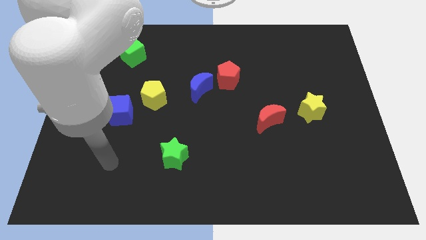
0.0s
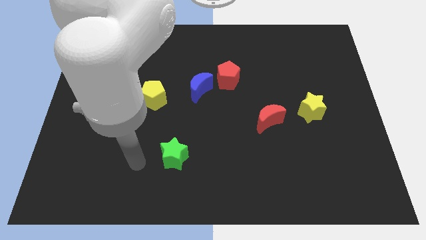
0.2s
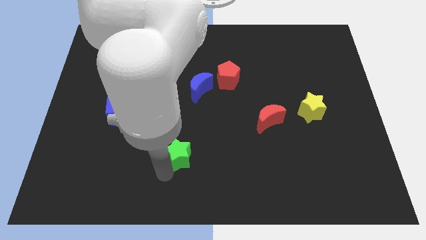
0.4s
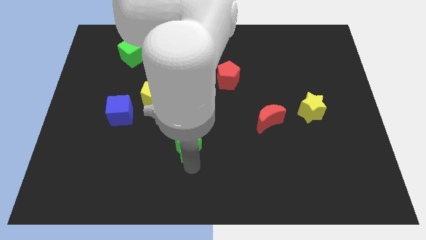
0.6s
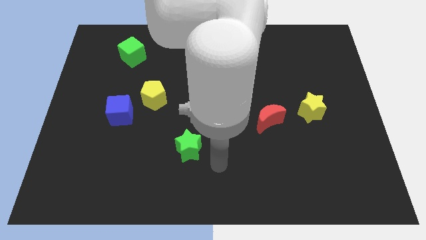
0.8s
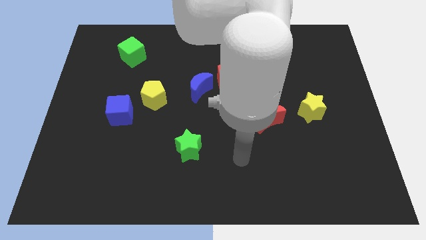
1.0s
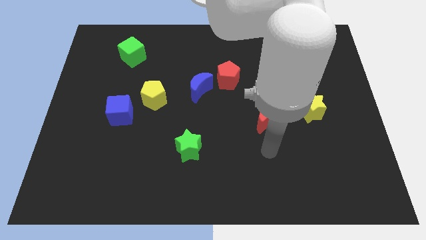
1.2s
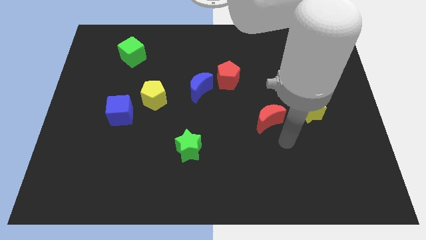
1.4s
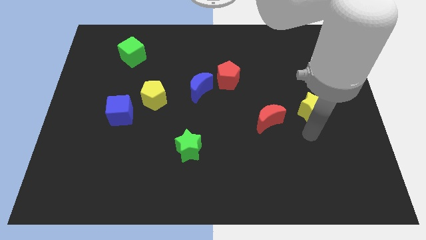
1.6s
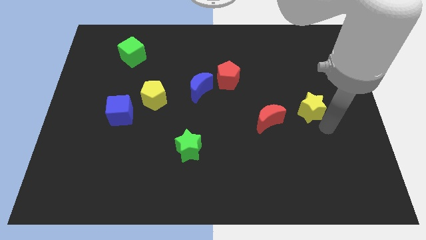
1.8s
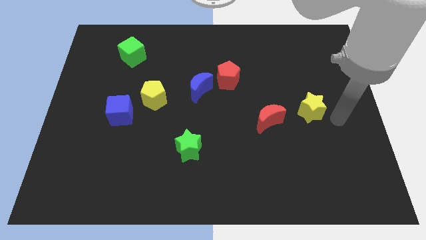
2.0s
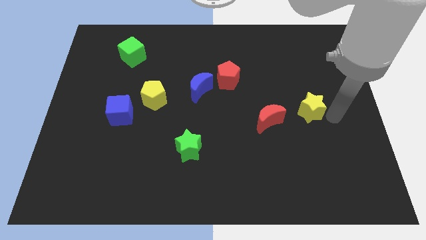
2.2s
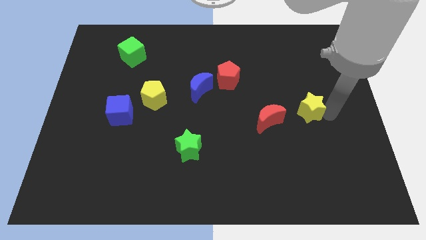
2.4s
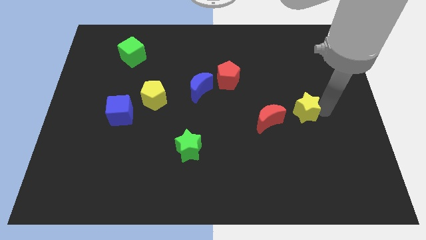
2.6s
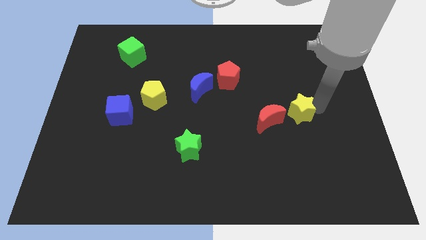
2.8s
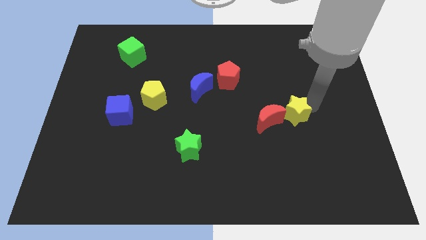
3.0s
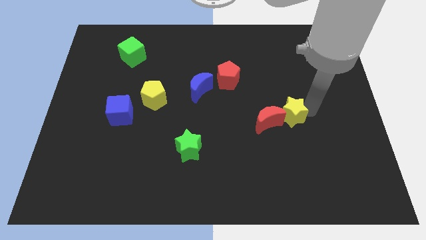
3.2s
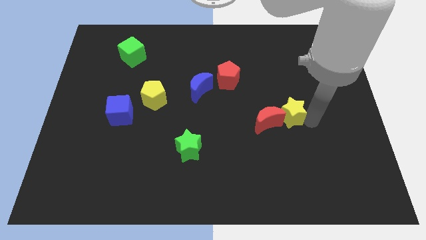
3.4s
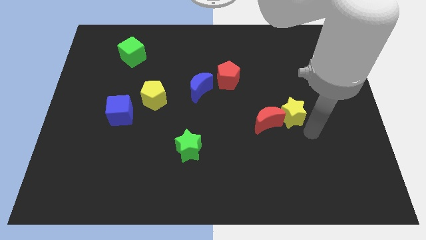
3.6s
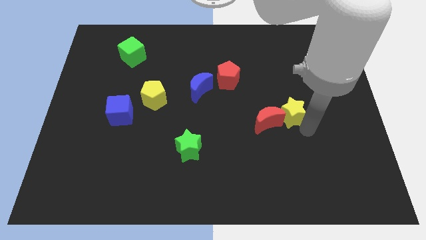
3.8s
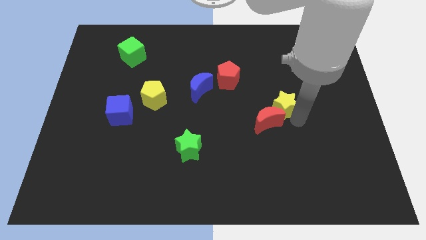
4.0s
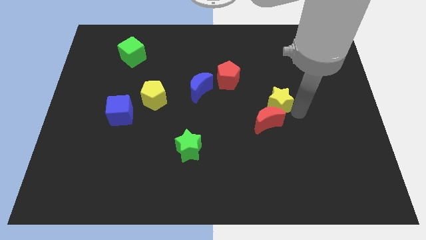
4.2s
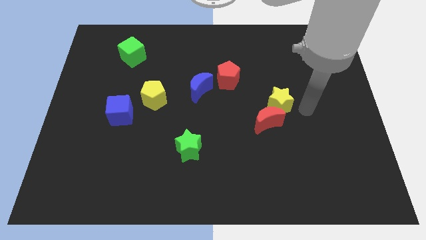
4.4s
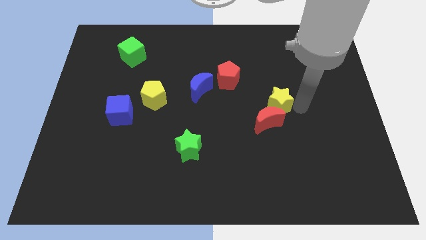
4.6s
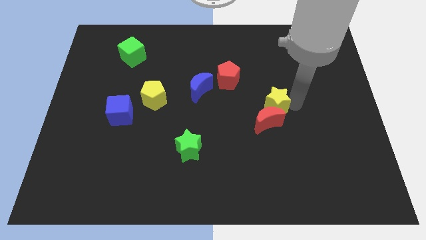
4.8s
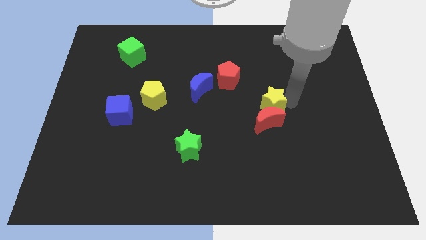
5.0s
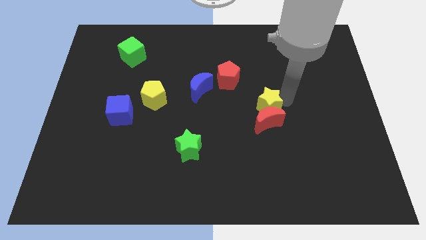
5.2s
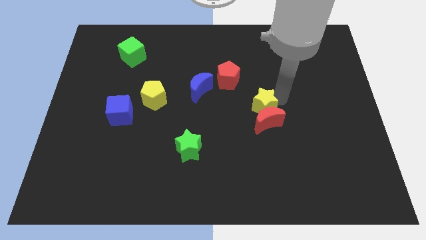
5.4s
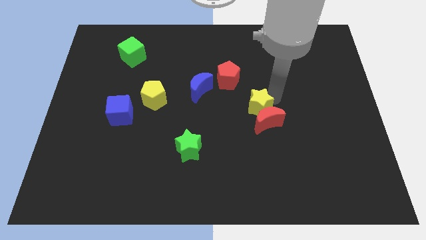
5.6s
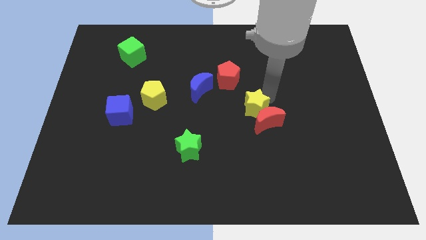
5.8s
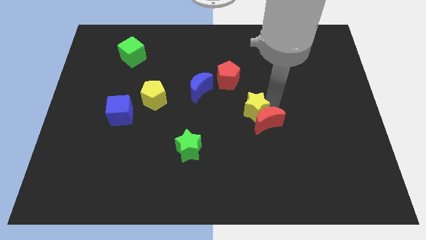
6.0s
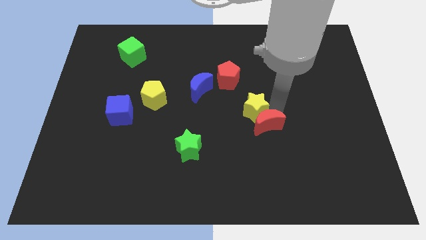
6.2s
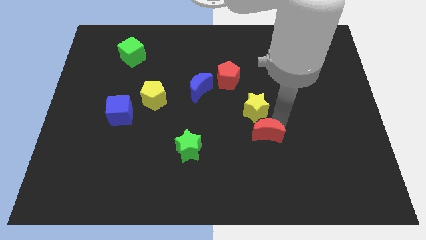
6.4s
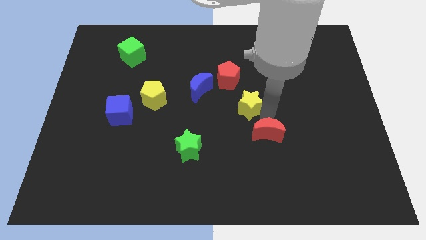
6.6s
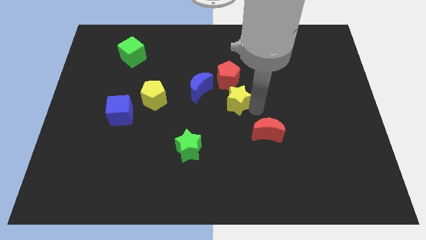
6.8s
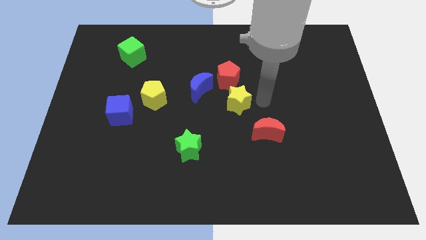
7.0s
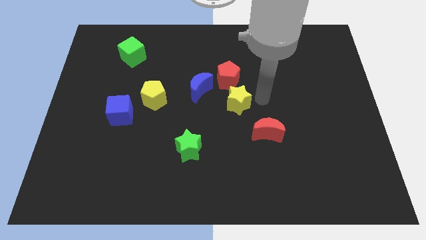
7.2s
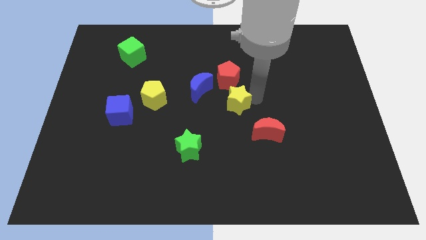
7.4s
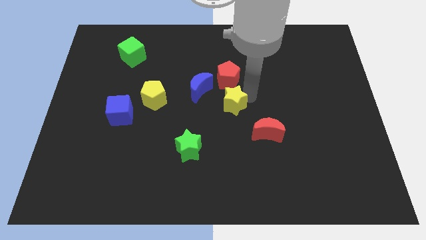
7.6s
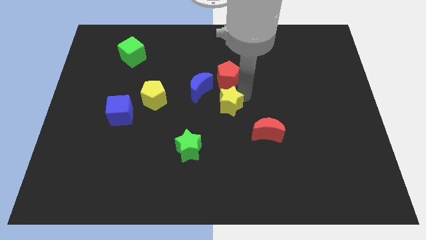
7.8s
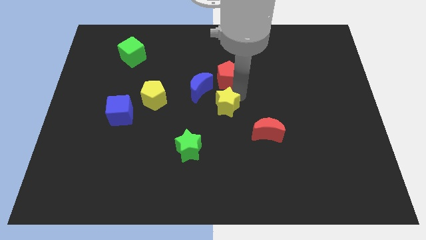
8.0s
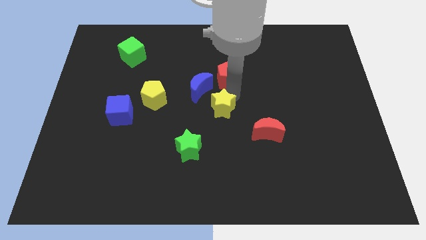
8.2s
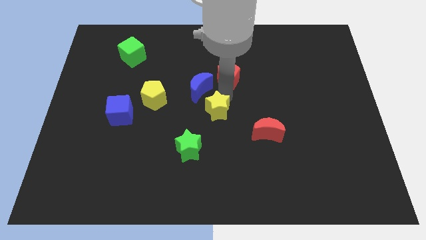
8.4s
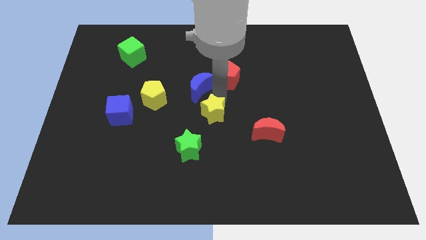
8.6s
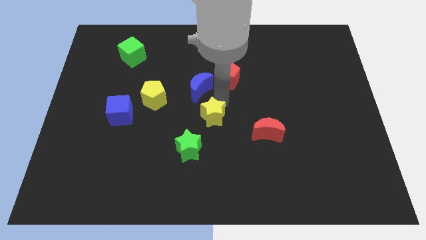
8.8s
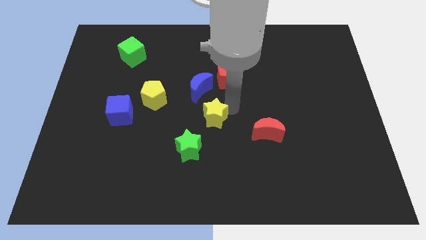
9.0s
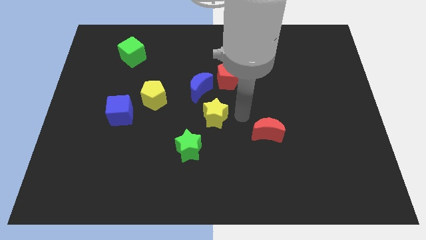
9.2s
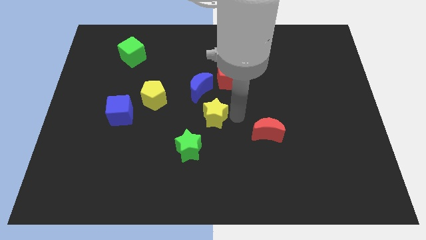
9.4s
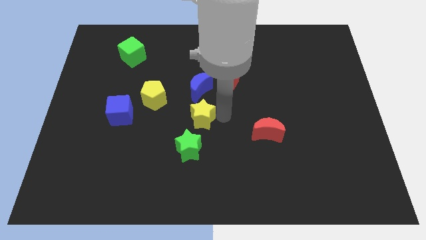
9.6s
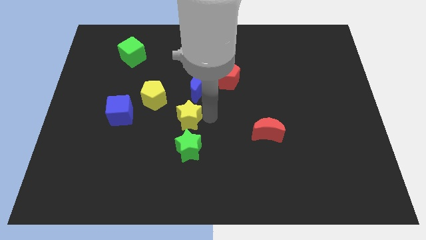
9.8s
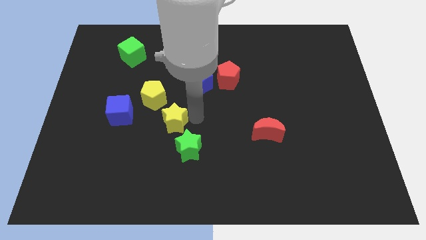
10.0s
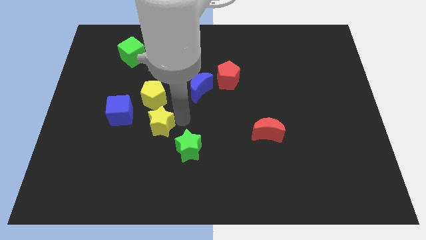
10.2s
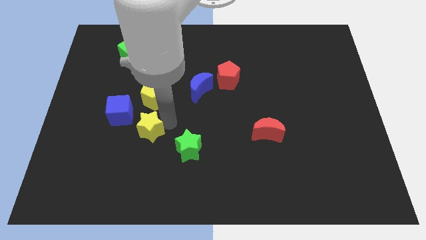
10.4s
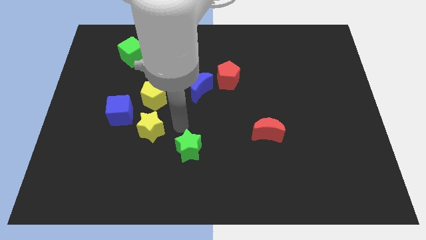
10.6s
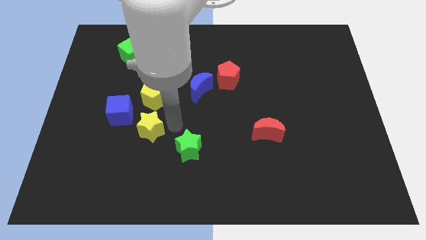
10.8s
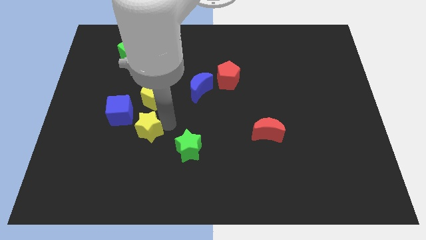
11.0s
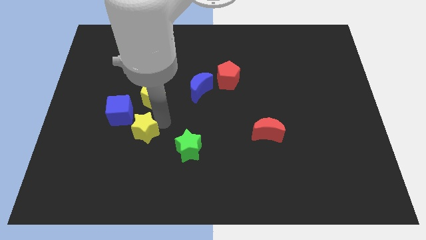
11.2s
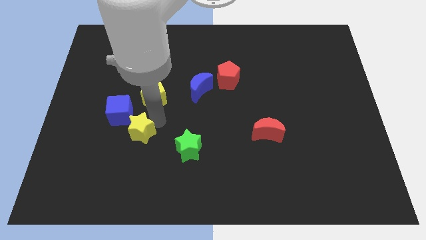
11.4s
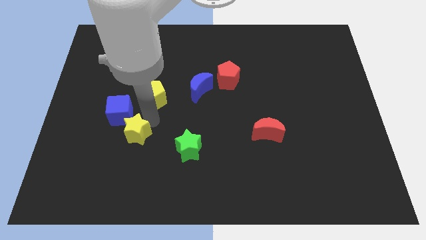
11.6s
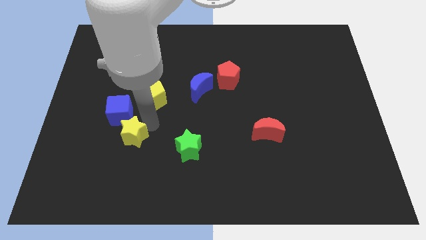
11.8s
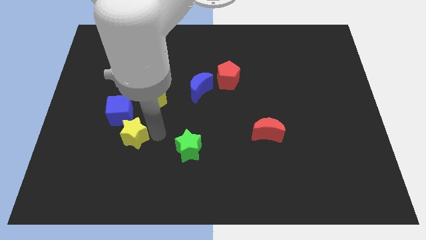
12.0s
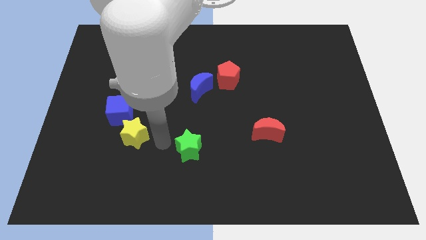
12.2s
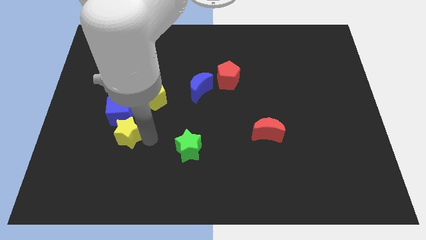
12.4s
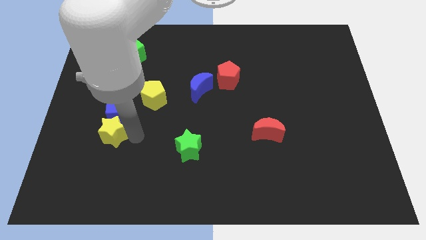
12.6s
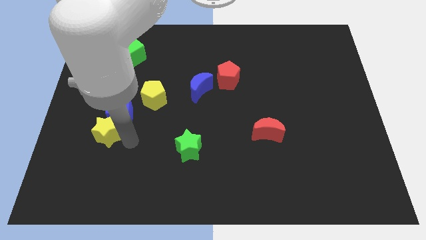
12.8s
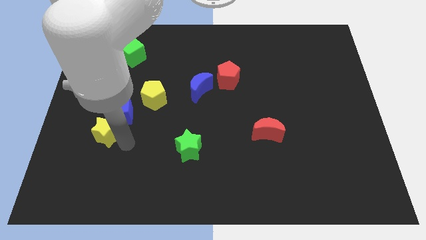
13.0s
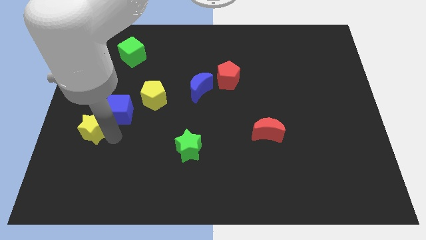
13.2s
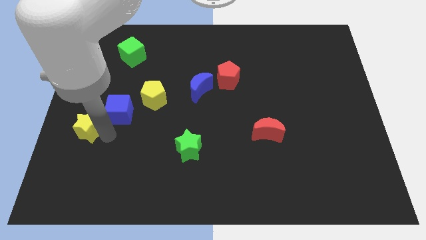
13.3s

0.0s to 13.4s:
move the yellow star to the left side of the board

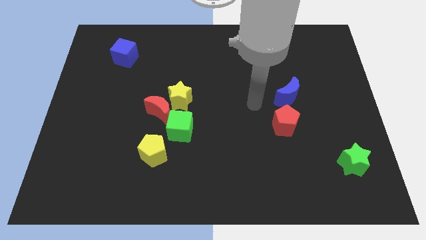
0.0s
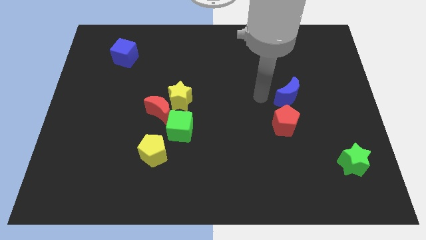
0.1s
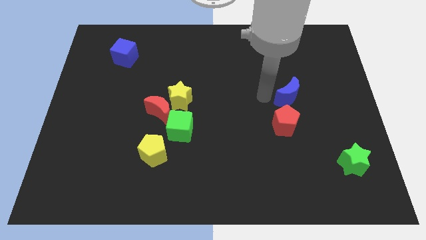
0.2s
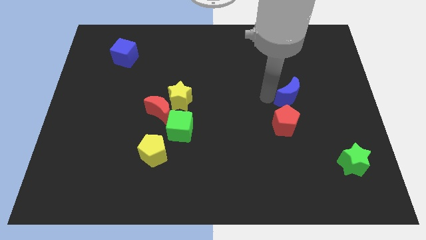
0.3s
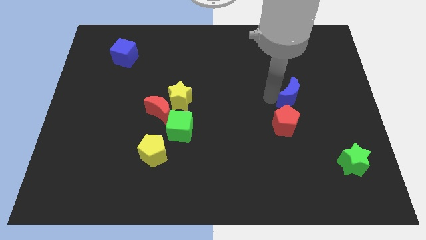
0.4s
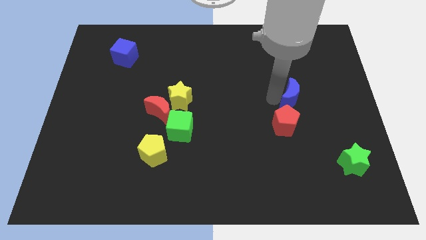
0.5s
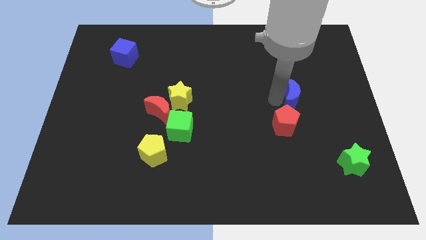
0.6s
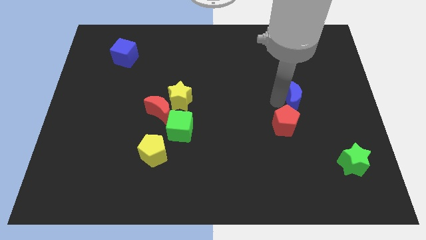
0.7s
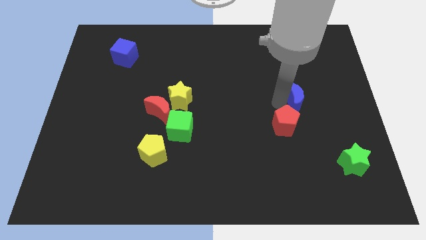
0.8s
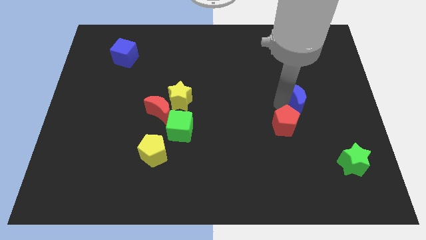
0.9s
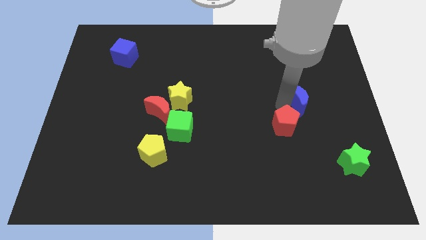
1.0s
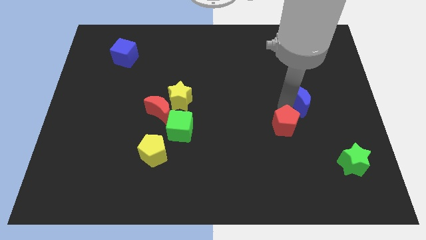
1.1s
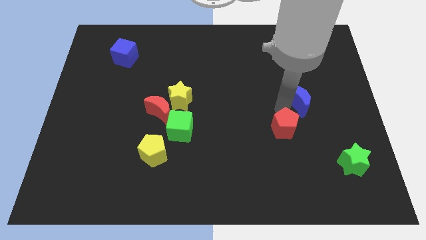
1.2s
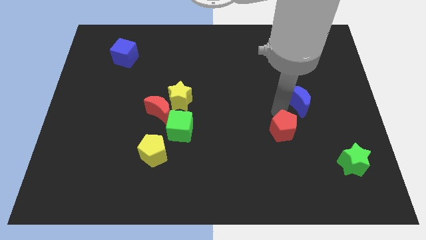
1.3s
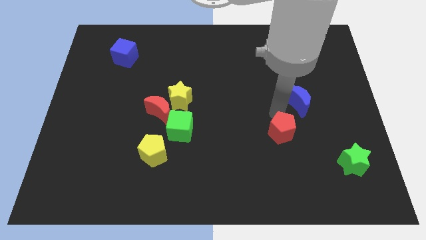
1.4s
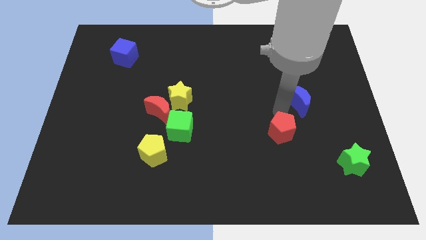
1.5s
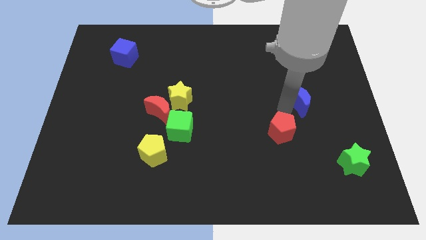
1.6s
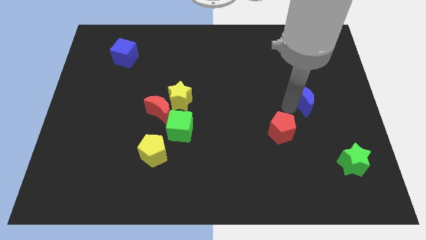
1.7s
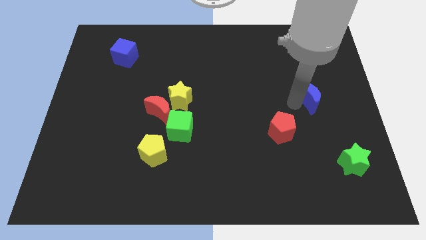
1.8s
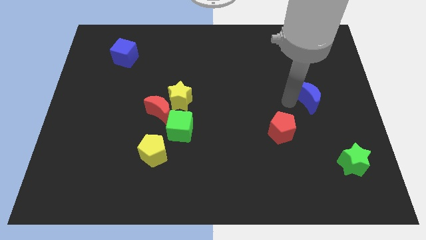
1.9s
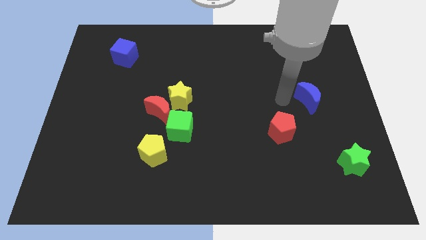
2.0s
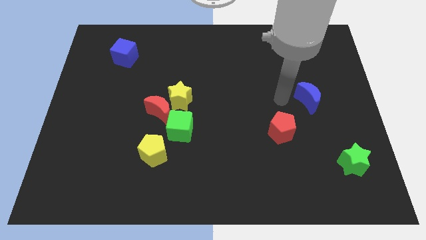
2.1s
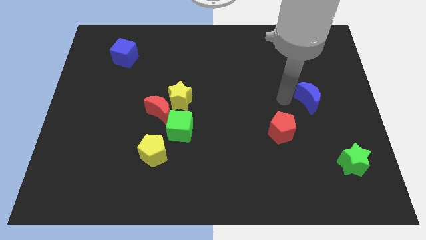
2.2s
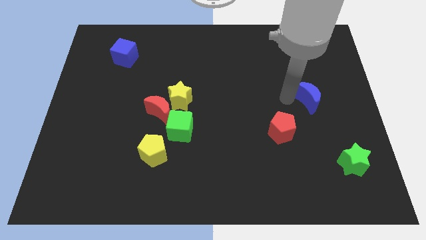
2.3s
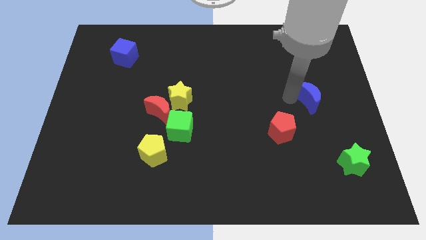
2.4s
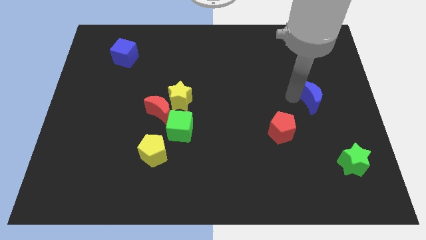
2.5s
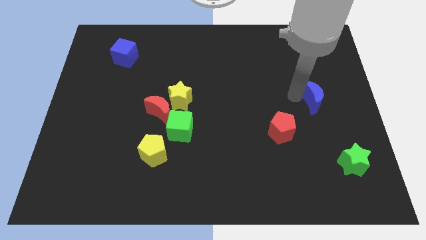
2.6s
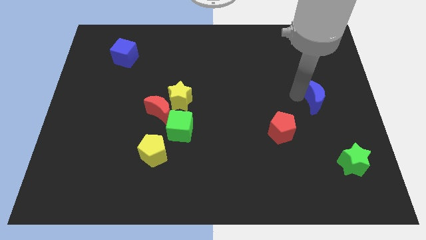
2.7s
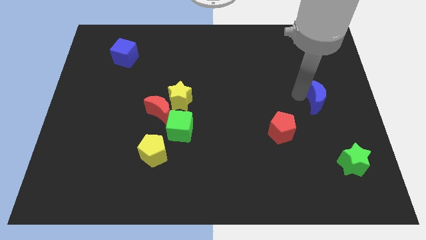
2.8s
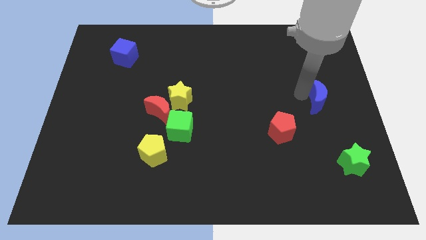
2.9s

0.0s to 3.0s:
put the blue moon to the right side
